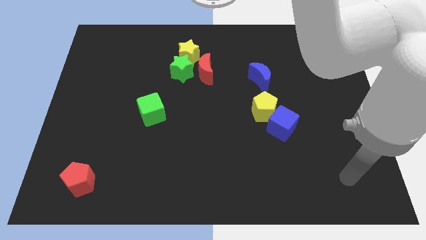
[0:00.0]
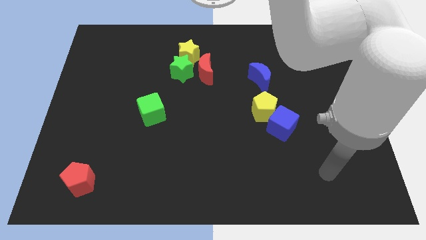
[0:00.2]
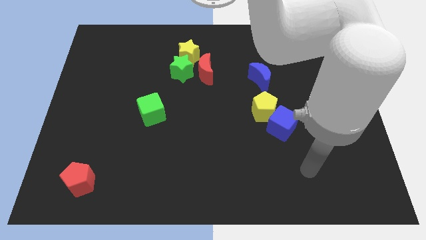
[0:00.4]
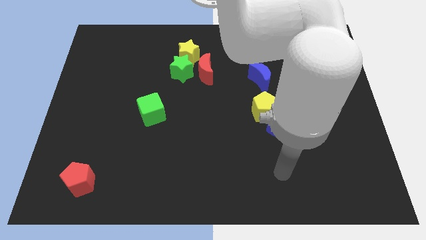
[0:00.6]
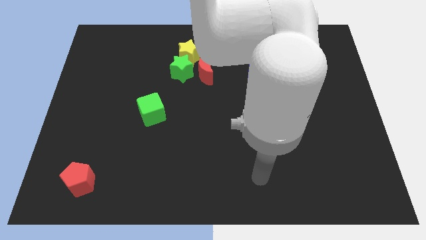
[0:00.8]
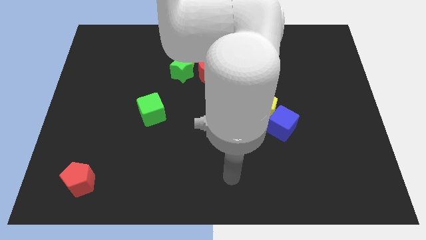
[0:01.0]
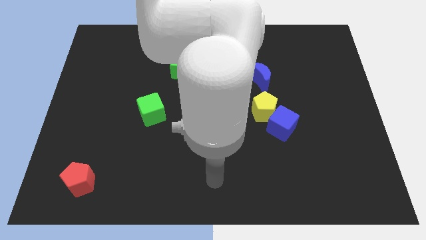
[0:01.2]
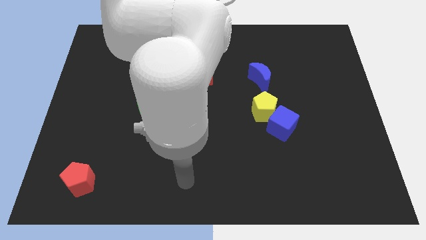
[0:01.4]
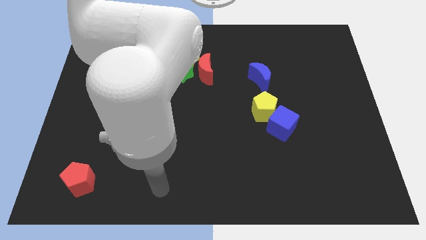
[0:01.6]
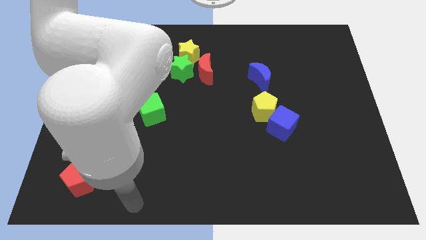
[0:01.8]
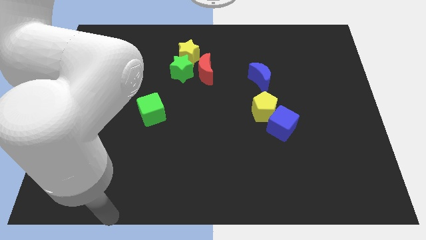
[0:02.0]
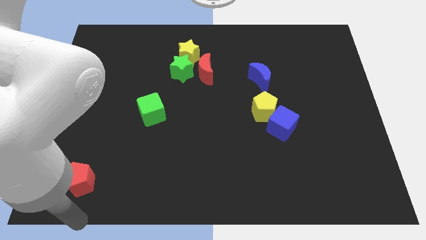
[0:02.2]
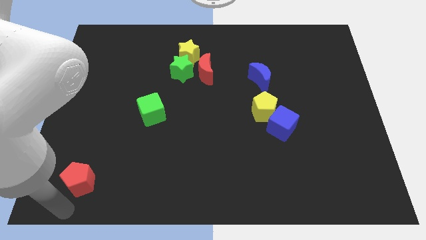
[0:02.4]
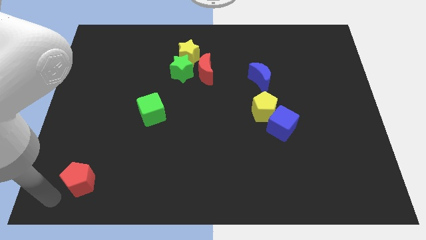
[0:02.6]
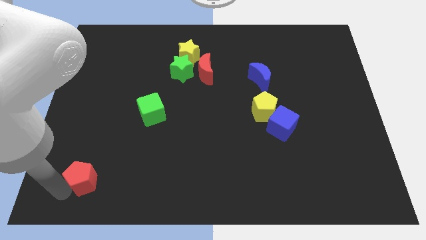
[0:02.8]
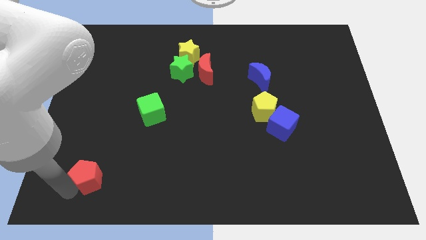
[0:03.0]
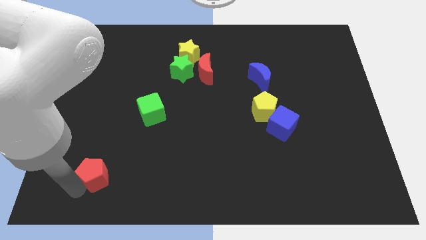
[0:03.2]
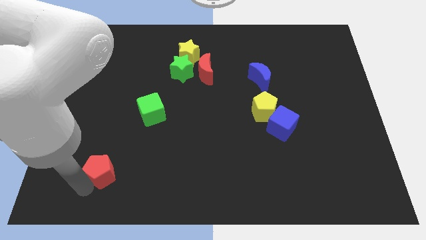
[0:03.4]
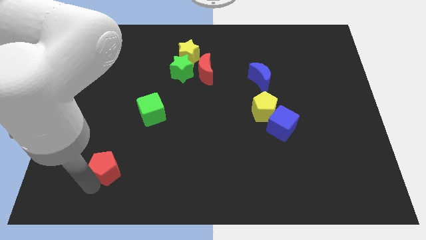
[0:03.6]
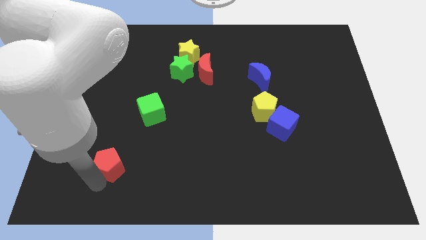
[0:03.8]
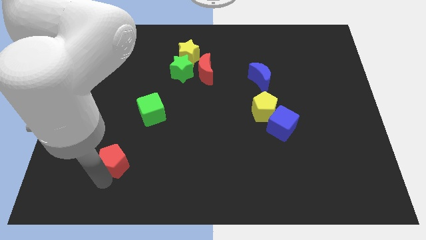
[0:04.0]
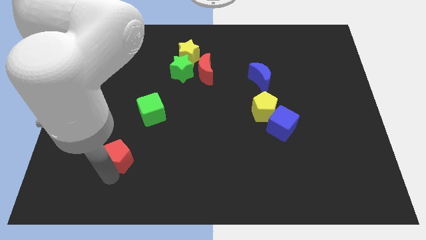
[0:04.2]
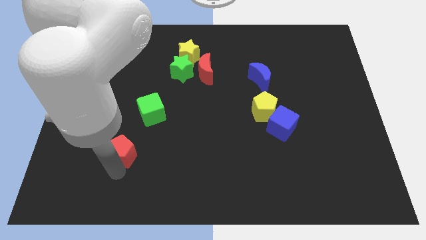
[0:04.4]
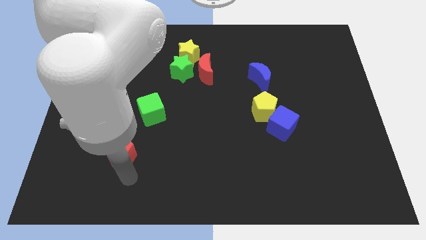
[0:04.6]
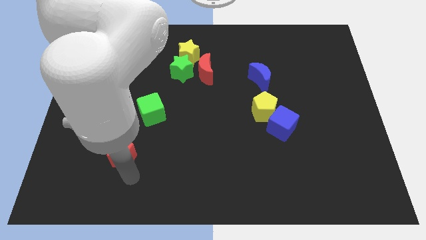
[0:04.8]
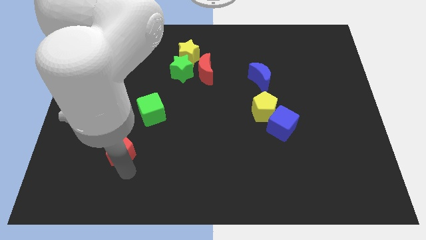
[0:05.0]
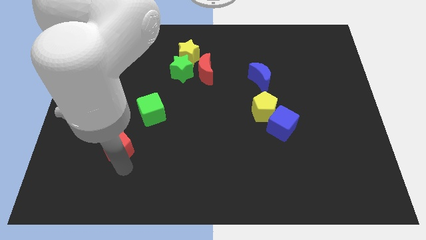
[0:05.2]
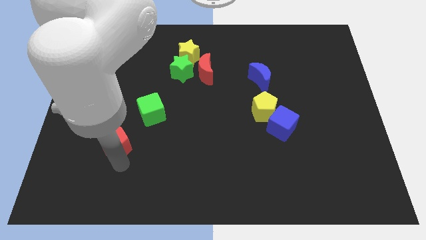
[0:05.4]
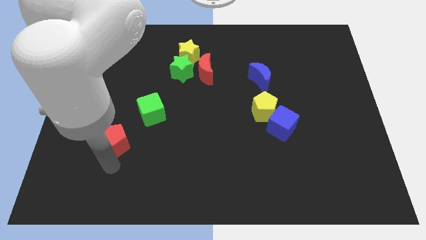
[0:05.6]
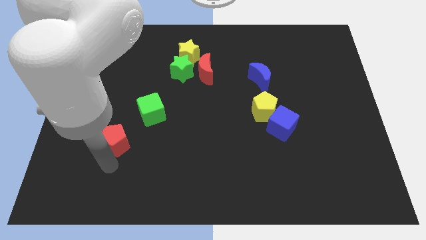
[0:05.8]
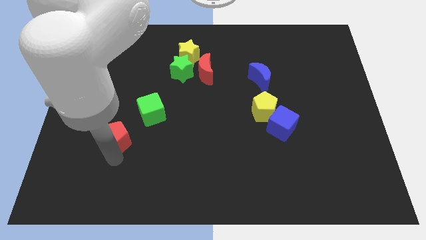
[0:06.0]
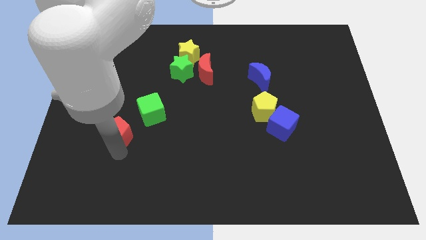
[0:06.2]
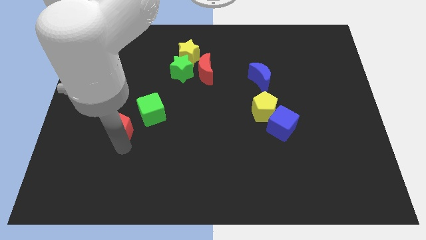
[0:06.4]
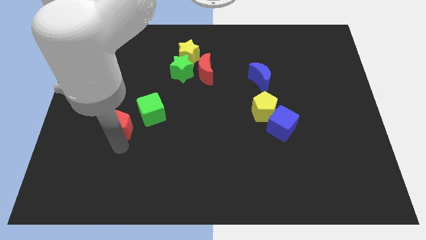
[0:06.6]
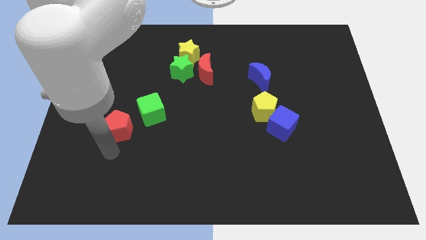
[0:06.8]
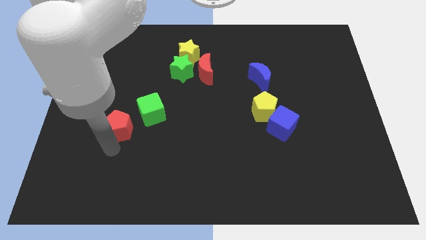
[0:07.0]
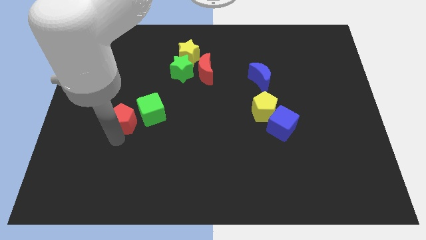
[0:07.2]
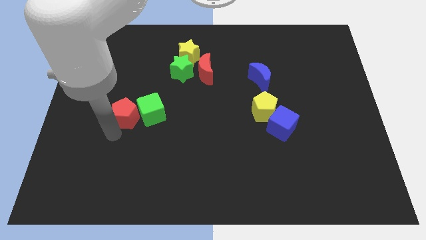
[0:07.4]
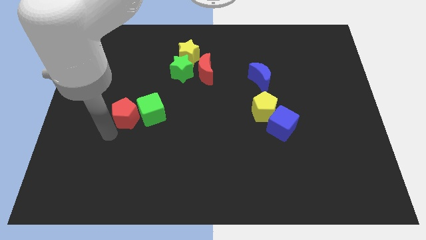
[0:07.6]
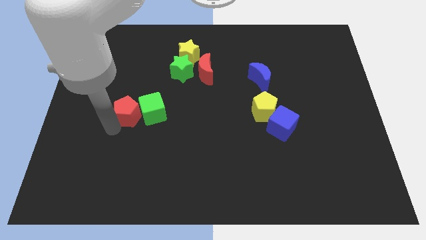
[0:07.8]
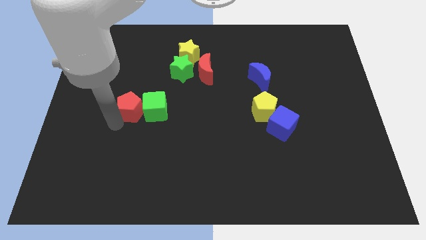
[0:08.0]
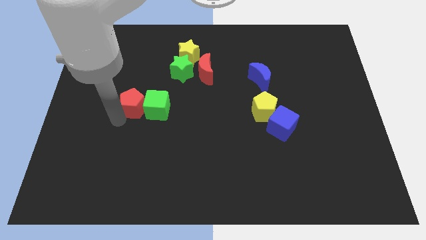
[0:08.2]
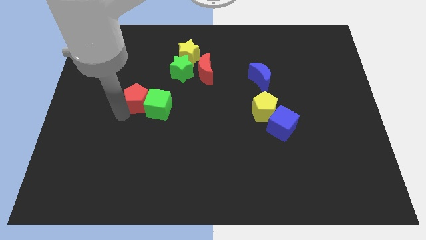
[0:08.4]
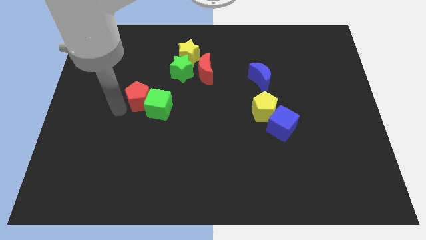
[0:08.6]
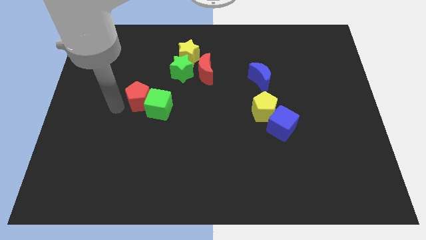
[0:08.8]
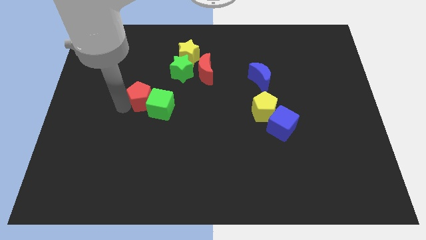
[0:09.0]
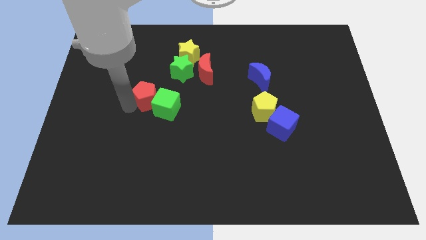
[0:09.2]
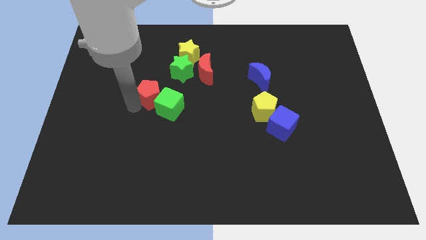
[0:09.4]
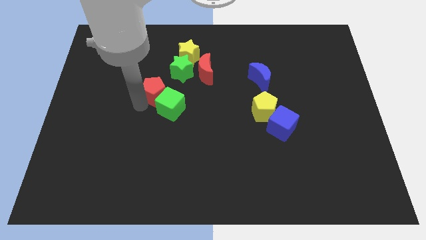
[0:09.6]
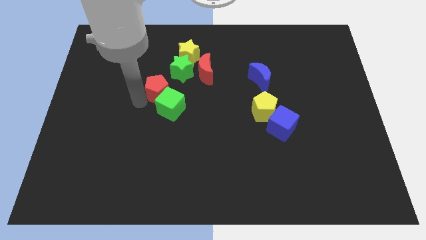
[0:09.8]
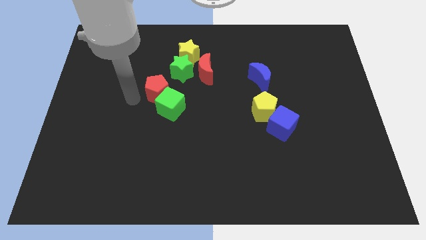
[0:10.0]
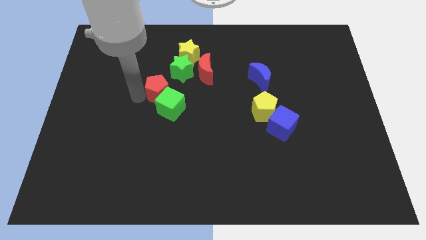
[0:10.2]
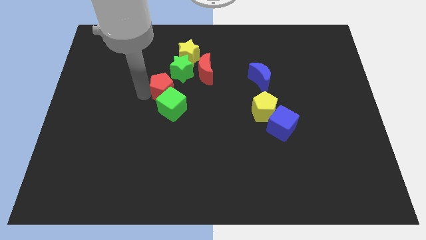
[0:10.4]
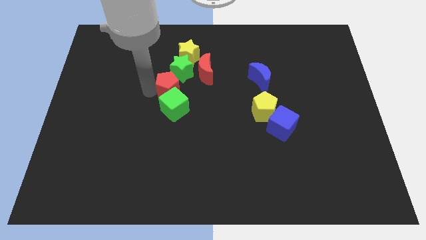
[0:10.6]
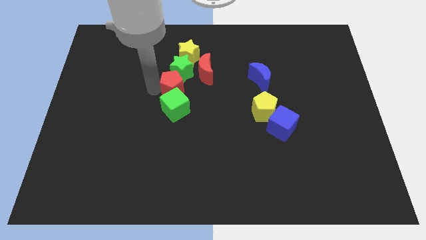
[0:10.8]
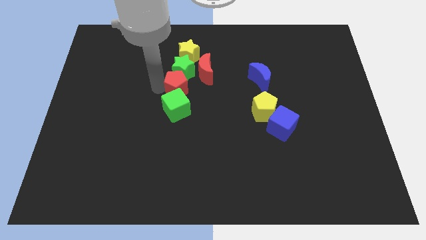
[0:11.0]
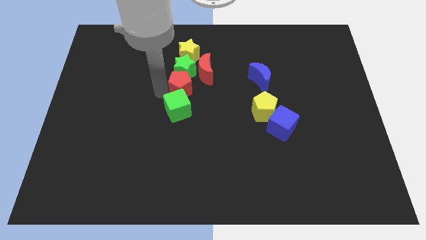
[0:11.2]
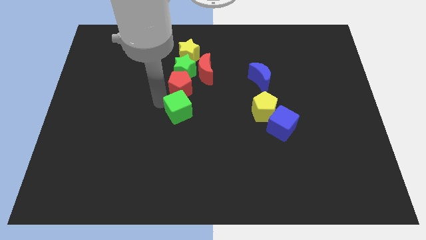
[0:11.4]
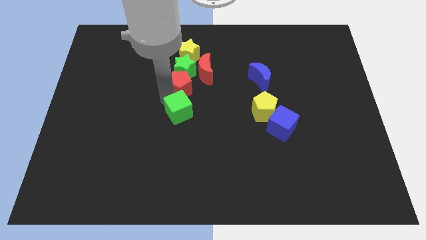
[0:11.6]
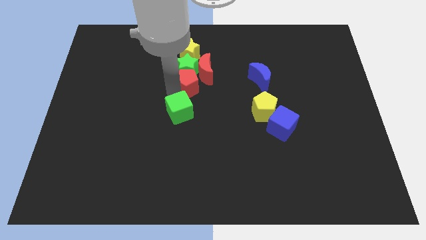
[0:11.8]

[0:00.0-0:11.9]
slide the red pentagon towards the red moon

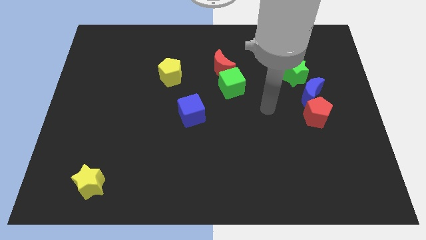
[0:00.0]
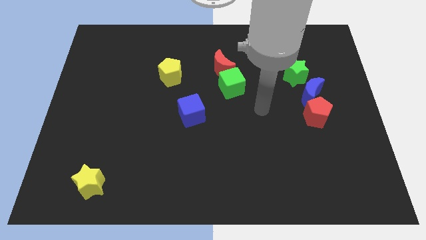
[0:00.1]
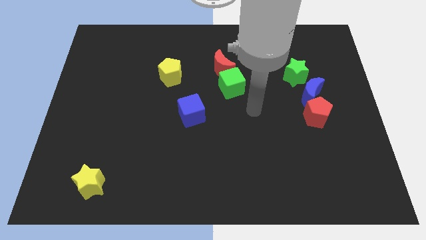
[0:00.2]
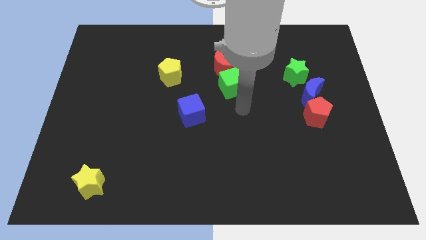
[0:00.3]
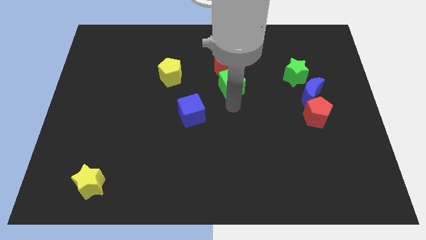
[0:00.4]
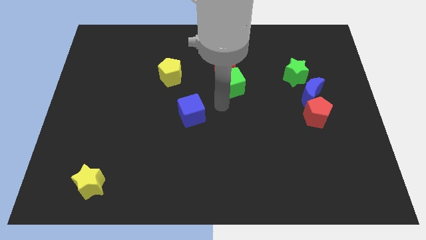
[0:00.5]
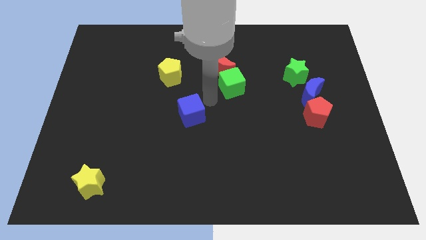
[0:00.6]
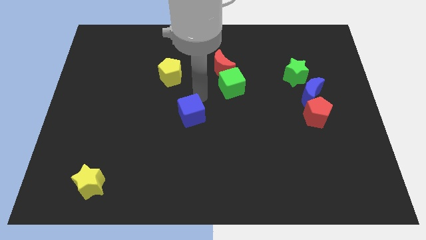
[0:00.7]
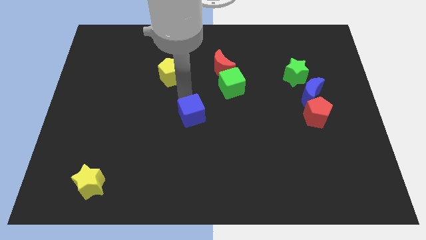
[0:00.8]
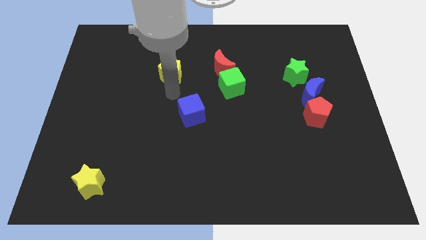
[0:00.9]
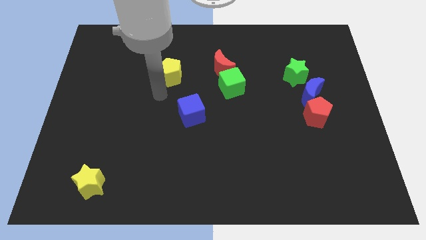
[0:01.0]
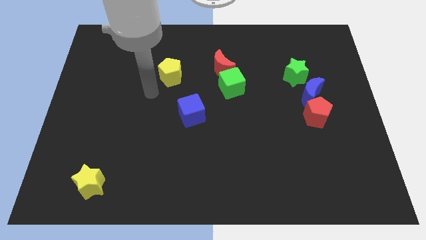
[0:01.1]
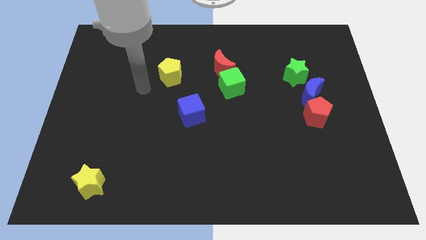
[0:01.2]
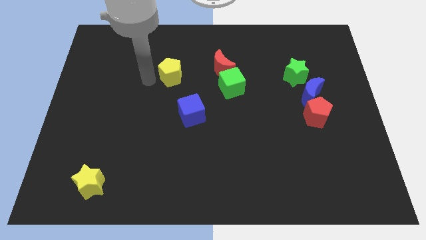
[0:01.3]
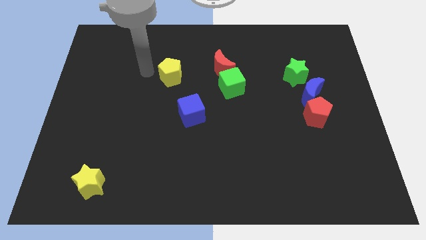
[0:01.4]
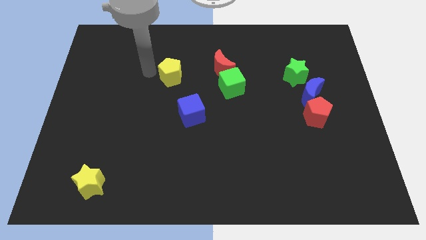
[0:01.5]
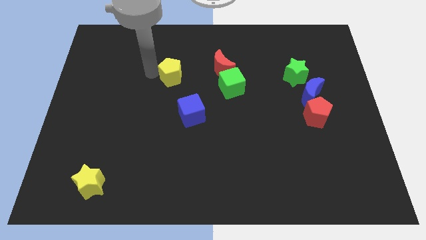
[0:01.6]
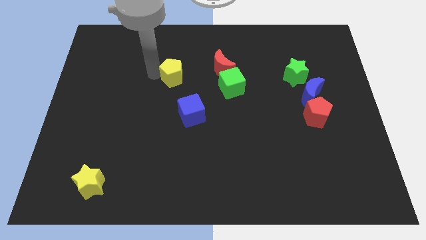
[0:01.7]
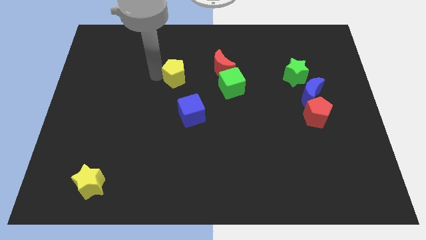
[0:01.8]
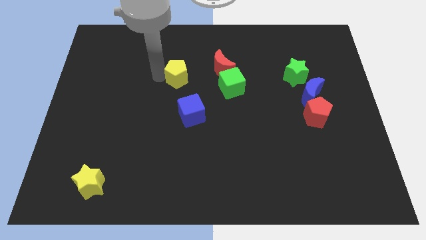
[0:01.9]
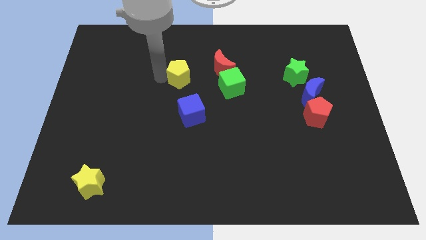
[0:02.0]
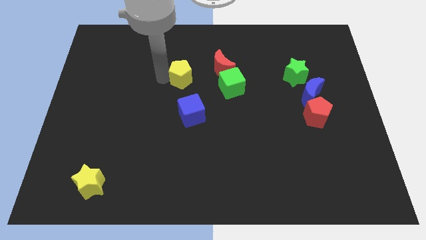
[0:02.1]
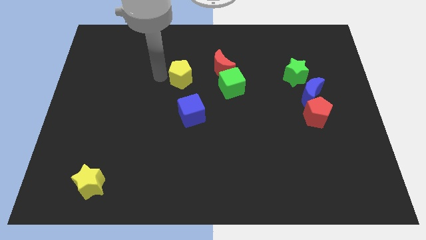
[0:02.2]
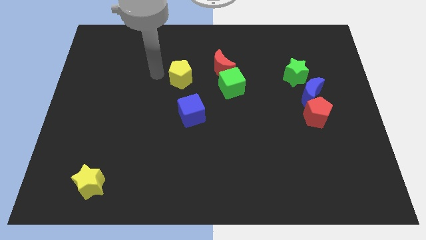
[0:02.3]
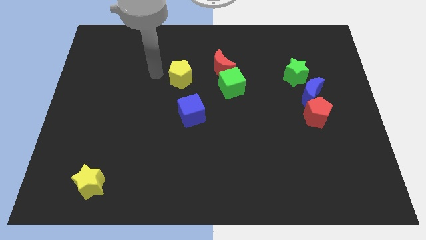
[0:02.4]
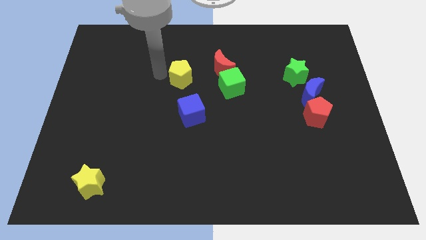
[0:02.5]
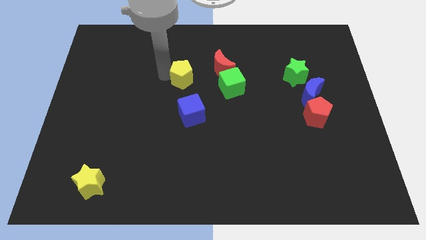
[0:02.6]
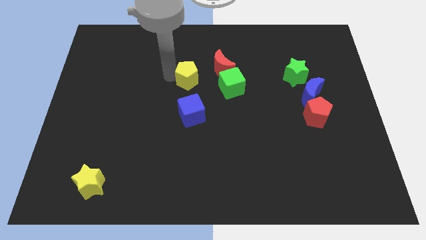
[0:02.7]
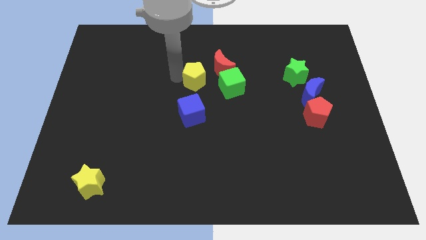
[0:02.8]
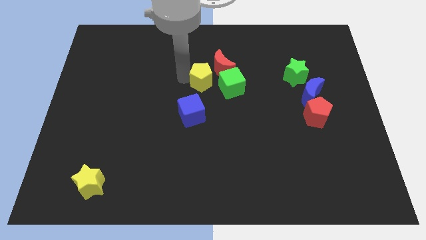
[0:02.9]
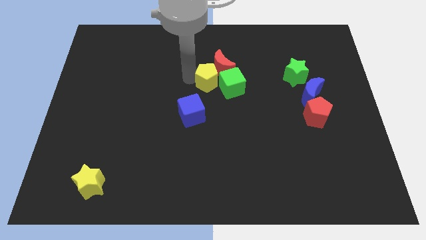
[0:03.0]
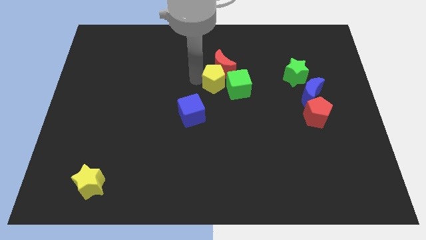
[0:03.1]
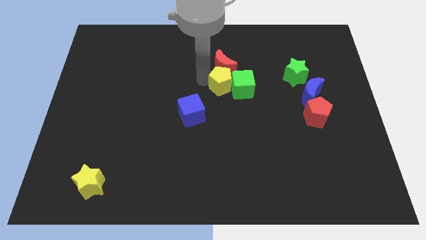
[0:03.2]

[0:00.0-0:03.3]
move the yellow pentagon to the green cube
